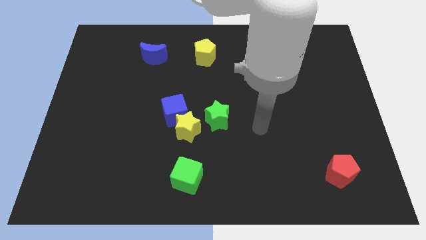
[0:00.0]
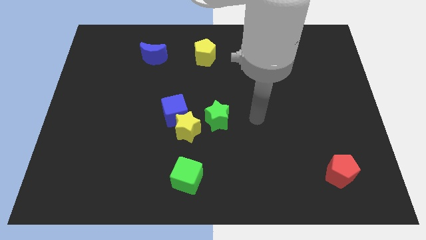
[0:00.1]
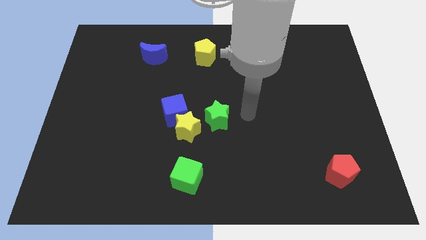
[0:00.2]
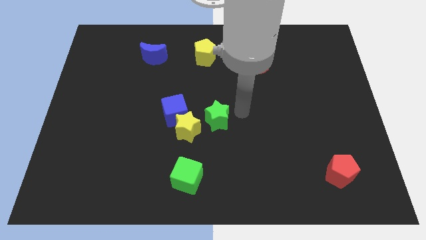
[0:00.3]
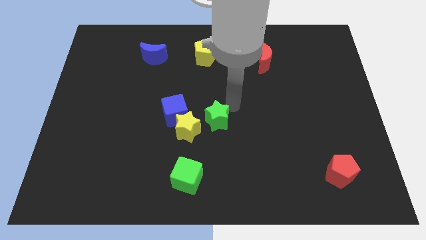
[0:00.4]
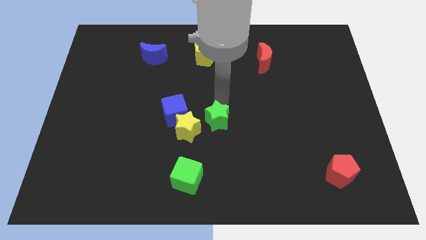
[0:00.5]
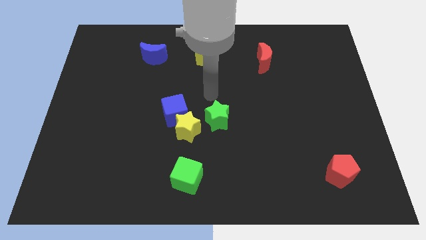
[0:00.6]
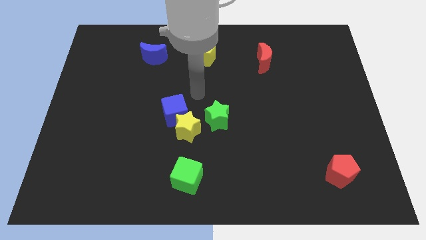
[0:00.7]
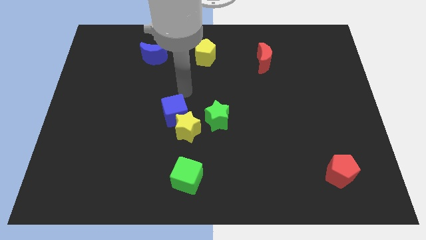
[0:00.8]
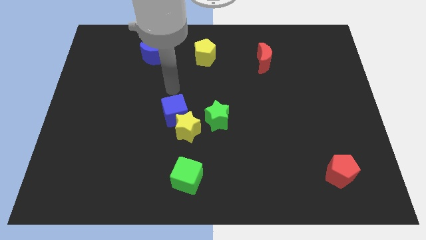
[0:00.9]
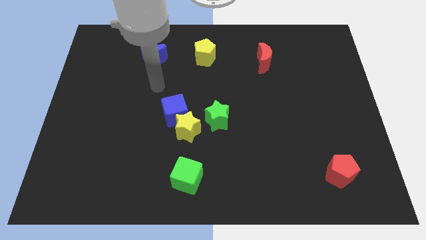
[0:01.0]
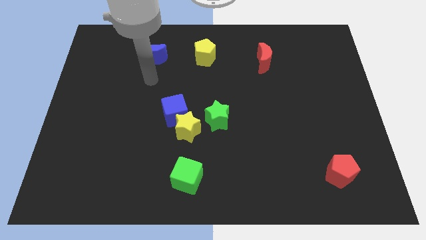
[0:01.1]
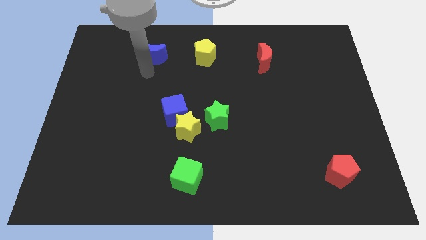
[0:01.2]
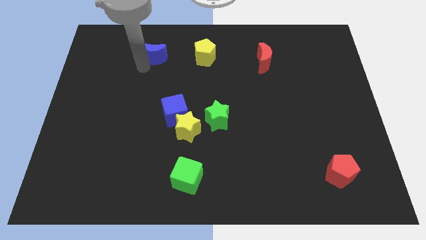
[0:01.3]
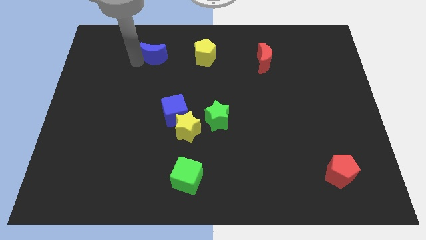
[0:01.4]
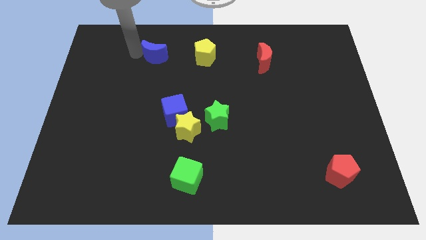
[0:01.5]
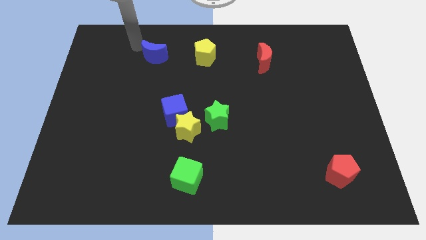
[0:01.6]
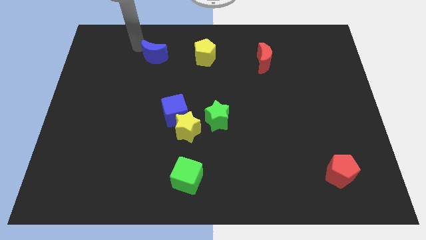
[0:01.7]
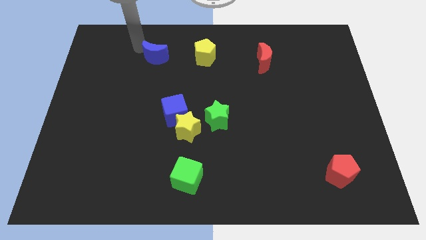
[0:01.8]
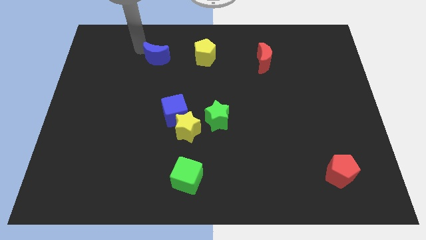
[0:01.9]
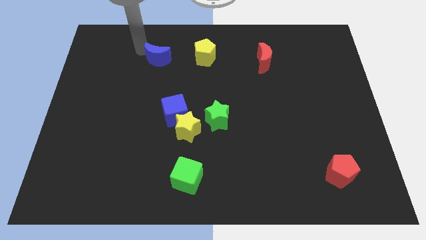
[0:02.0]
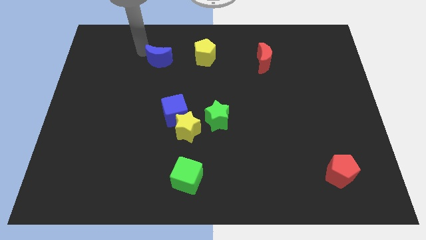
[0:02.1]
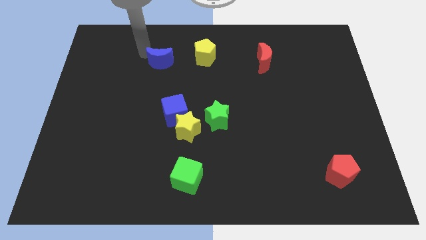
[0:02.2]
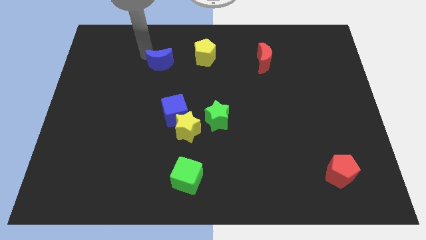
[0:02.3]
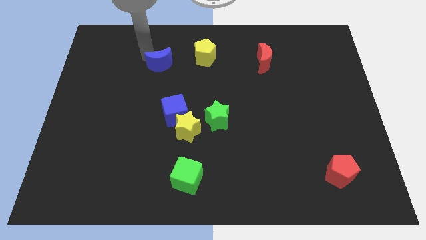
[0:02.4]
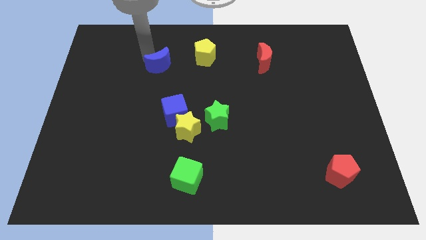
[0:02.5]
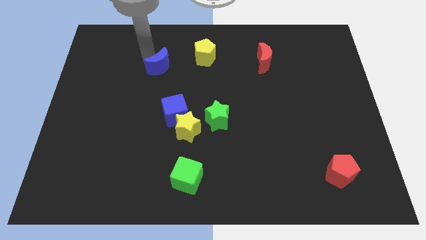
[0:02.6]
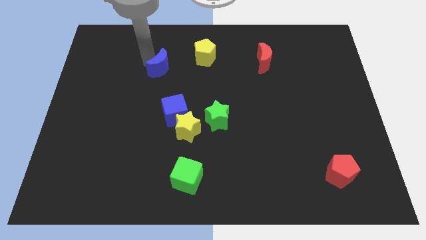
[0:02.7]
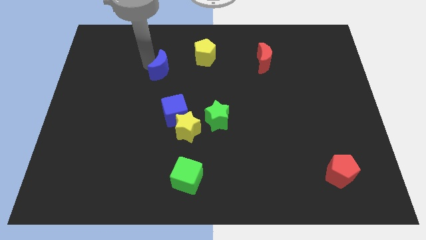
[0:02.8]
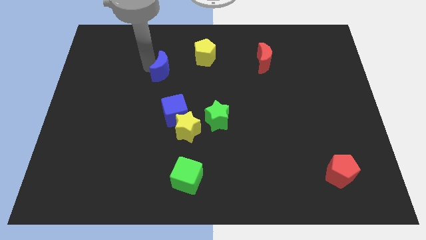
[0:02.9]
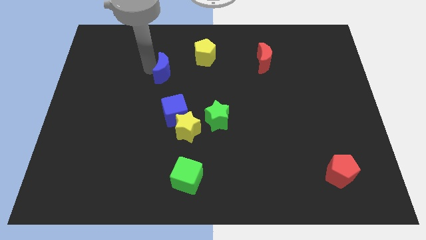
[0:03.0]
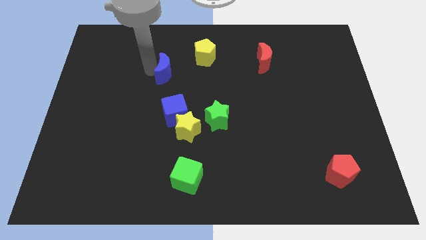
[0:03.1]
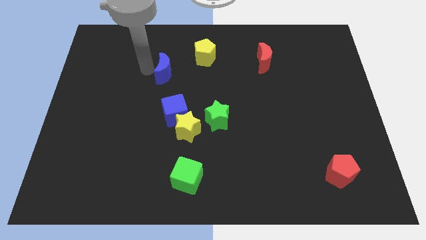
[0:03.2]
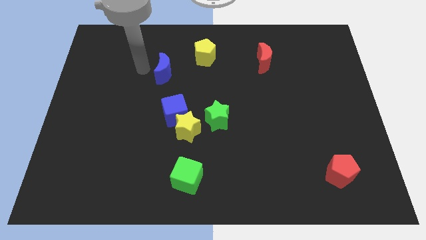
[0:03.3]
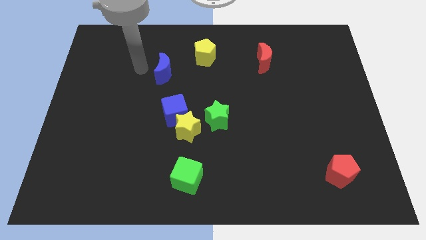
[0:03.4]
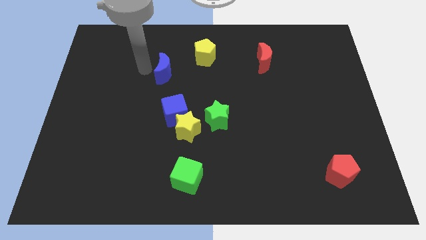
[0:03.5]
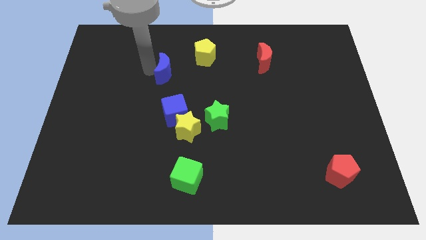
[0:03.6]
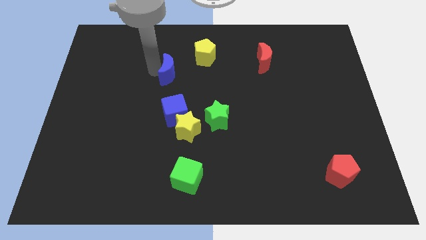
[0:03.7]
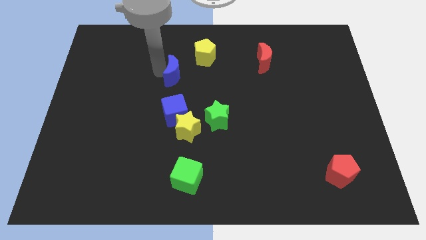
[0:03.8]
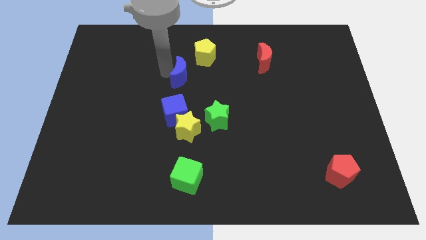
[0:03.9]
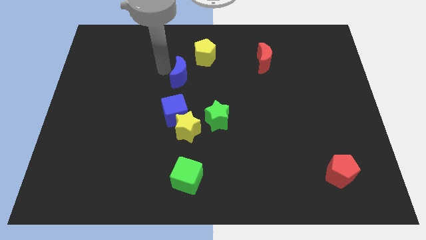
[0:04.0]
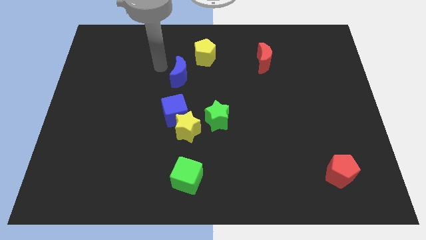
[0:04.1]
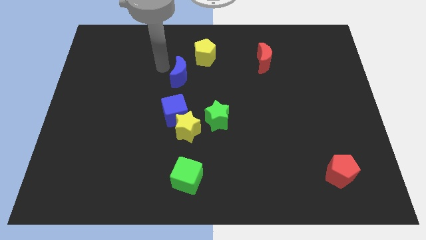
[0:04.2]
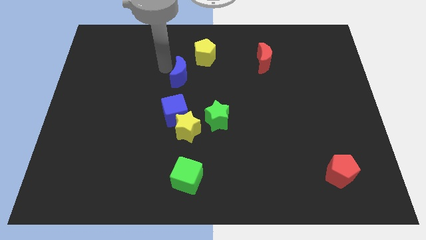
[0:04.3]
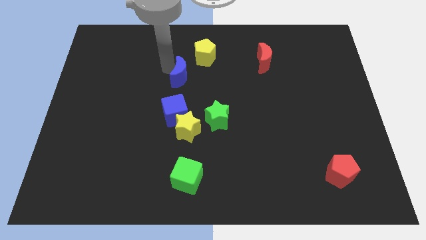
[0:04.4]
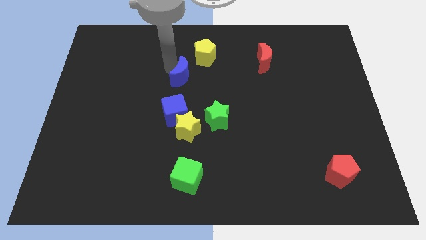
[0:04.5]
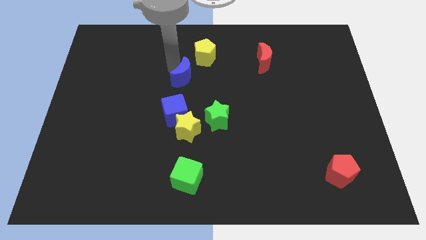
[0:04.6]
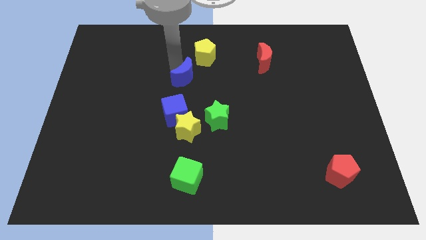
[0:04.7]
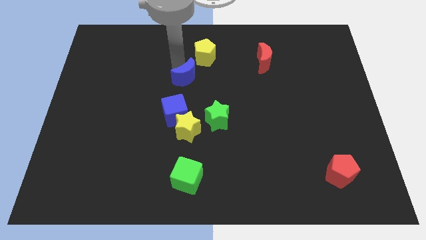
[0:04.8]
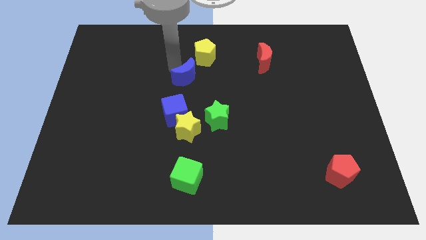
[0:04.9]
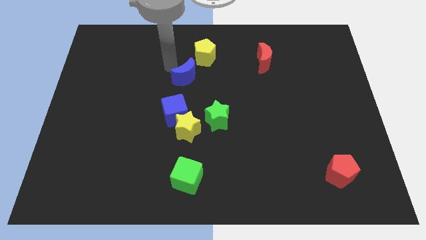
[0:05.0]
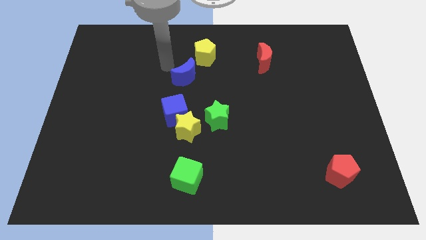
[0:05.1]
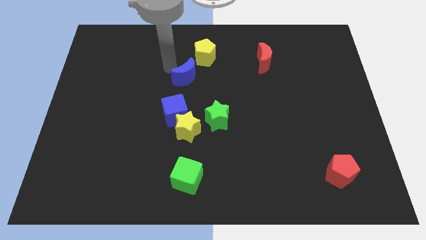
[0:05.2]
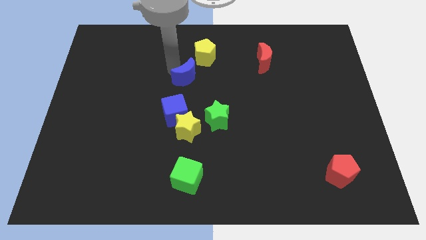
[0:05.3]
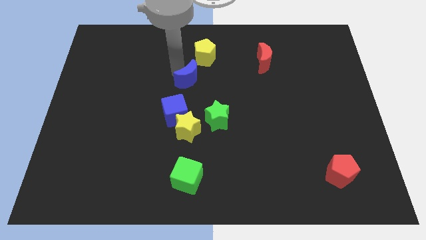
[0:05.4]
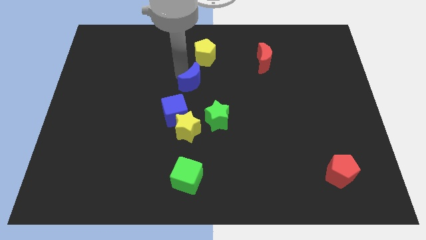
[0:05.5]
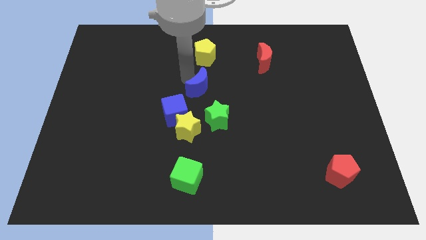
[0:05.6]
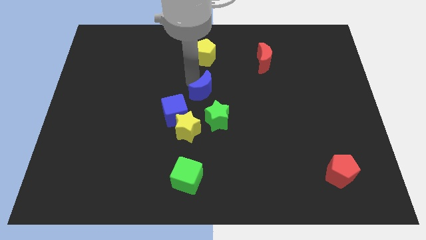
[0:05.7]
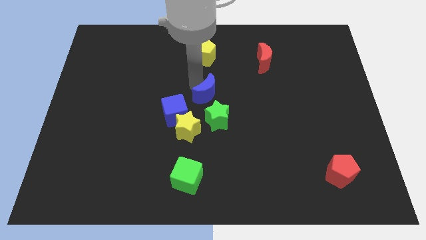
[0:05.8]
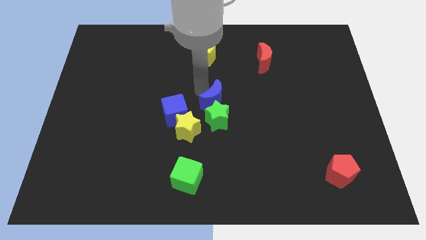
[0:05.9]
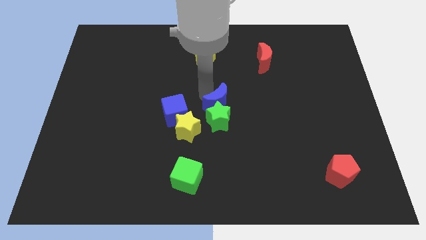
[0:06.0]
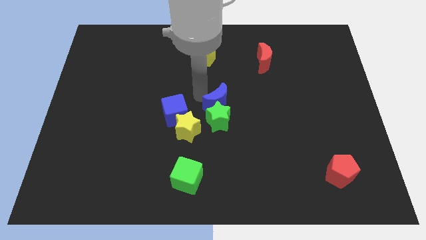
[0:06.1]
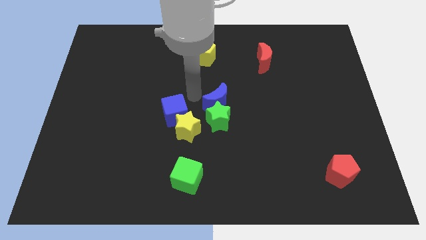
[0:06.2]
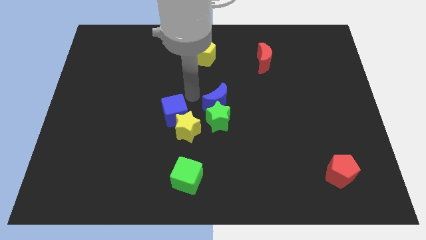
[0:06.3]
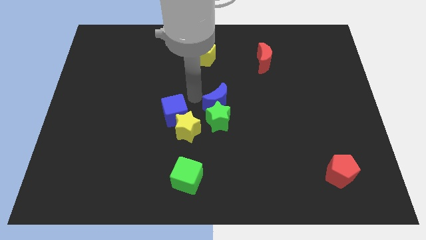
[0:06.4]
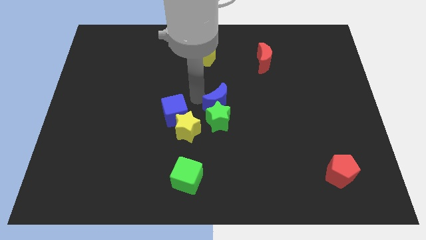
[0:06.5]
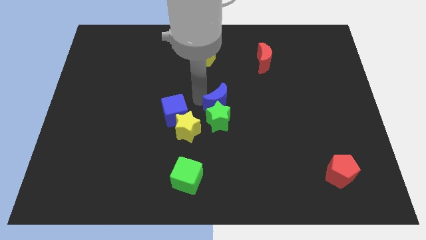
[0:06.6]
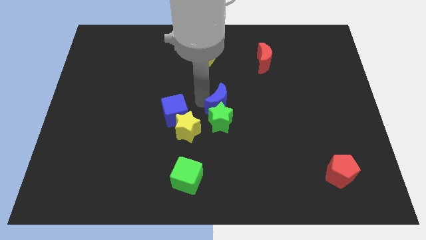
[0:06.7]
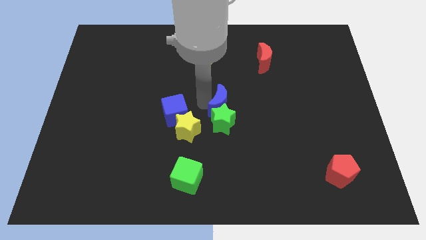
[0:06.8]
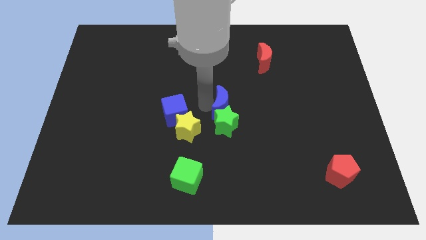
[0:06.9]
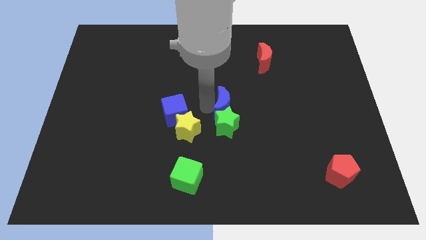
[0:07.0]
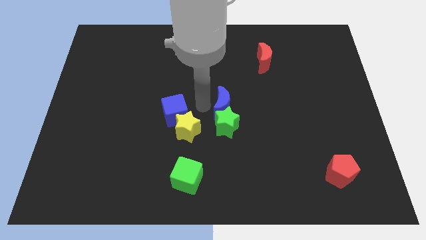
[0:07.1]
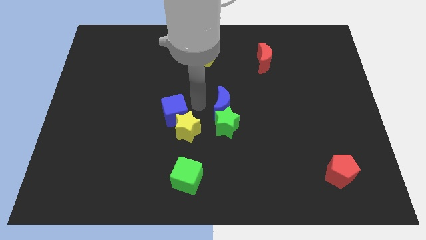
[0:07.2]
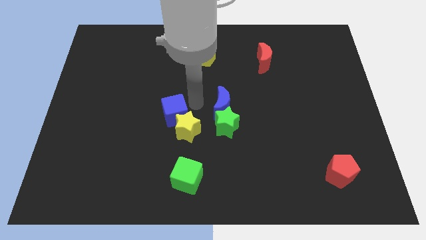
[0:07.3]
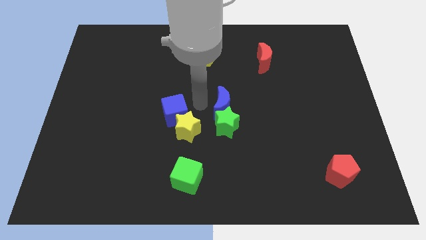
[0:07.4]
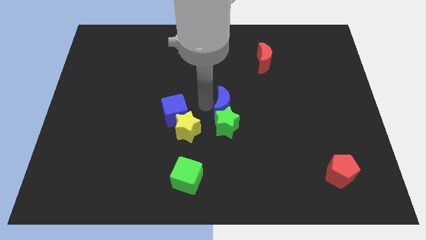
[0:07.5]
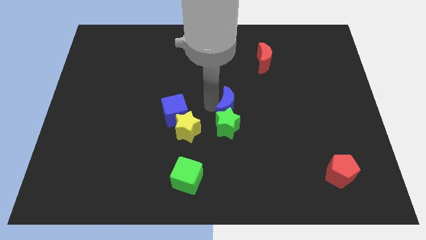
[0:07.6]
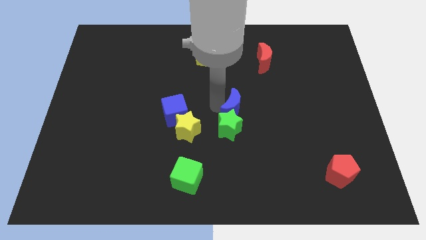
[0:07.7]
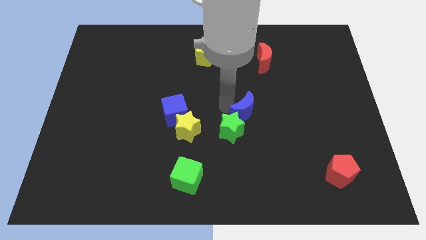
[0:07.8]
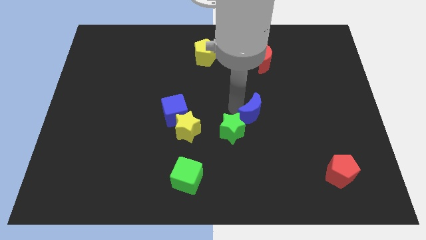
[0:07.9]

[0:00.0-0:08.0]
put the blue moon just right of the green star
